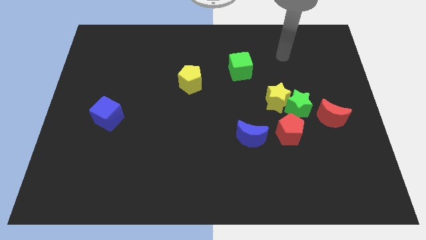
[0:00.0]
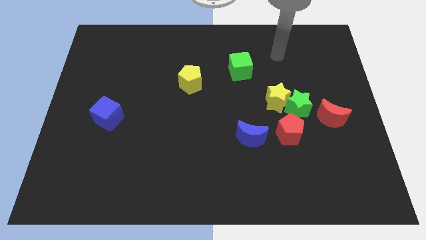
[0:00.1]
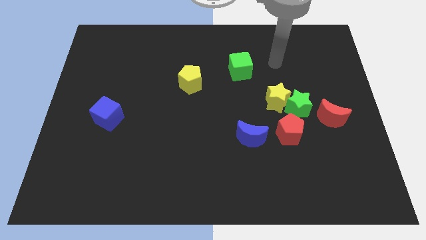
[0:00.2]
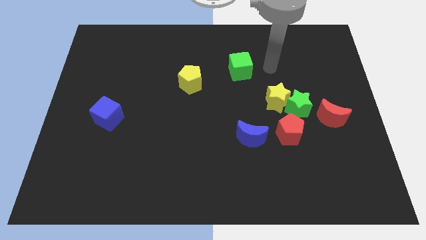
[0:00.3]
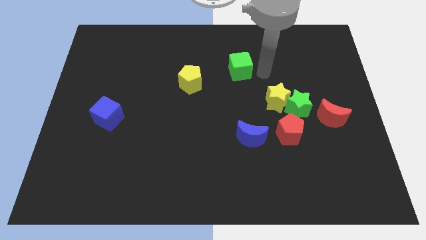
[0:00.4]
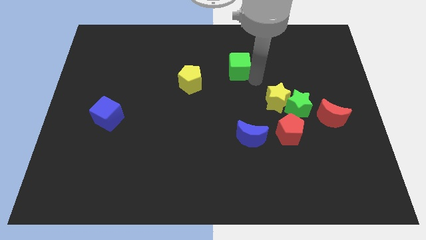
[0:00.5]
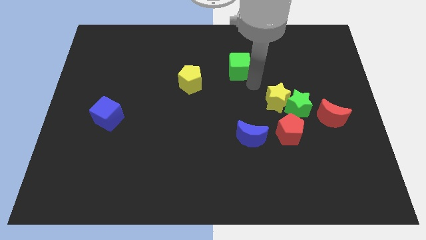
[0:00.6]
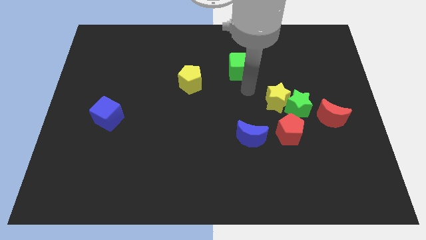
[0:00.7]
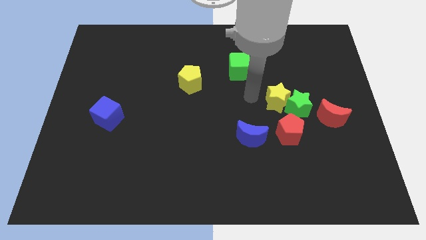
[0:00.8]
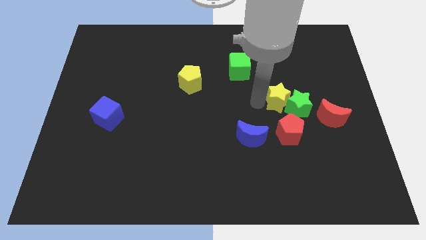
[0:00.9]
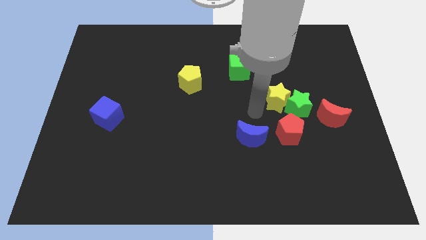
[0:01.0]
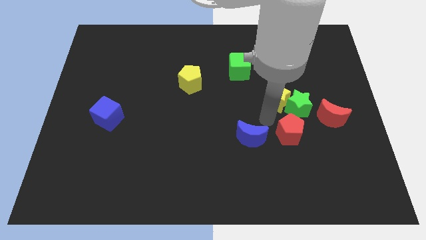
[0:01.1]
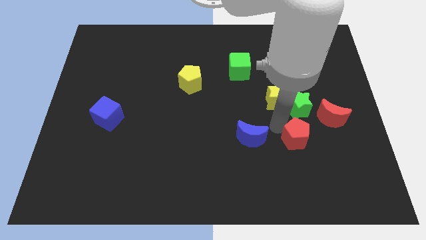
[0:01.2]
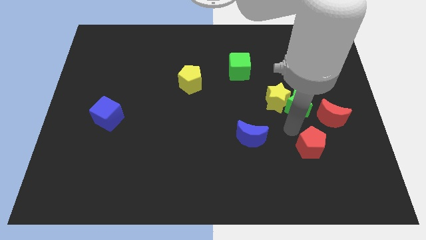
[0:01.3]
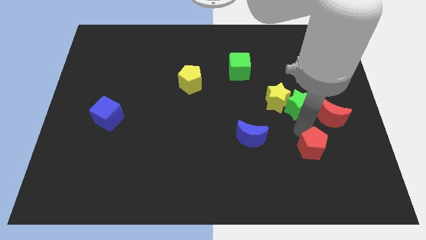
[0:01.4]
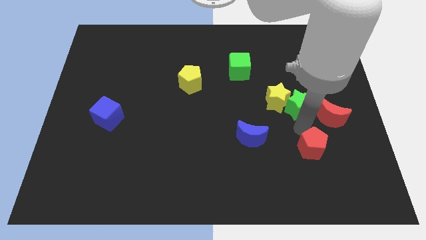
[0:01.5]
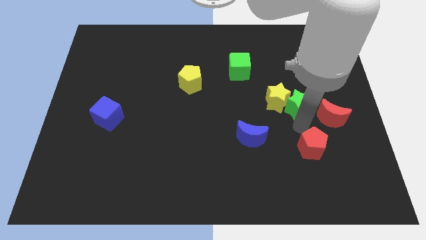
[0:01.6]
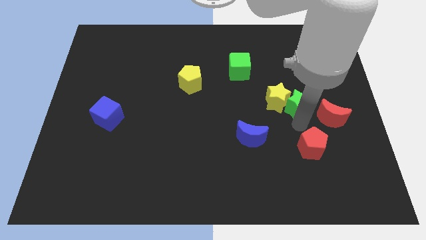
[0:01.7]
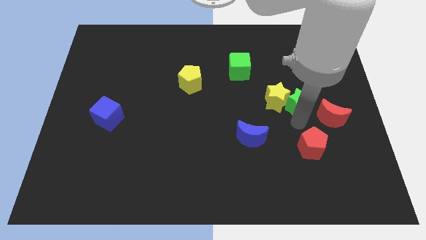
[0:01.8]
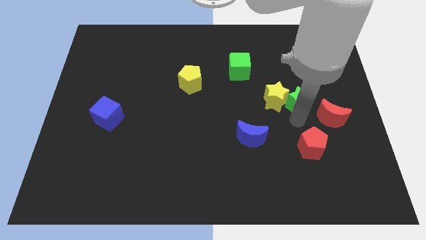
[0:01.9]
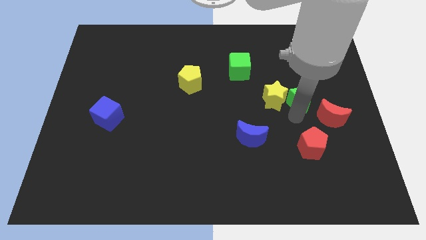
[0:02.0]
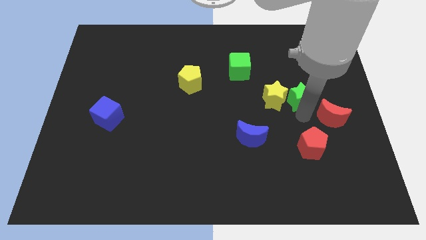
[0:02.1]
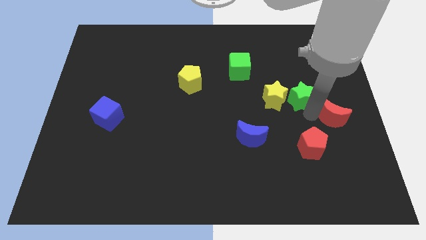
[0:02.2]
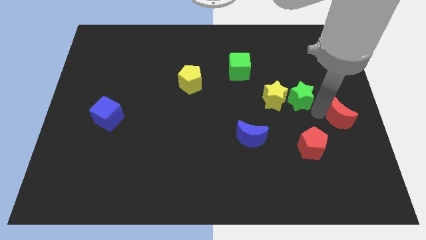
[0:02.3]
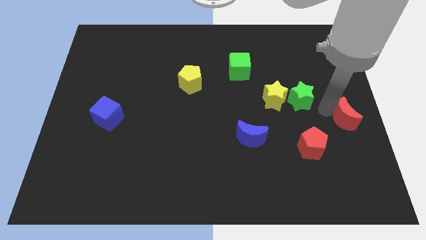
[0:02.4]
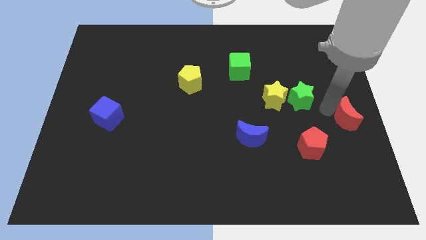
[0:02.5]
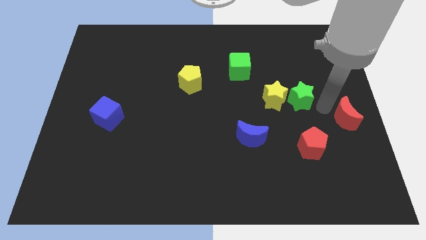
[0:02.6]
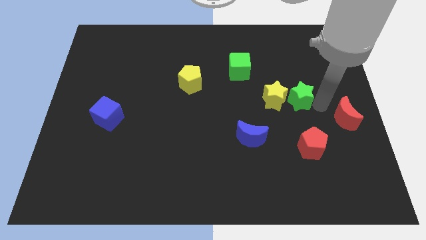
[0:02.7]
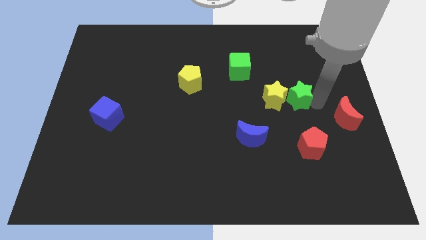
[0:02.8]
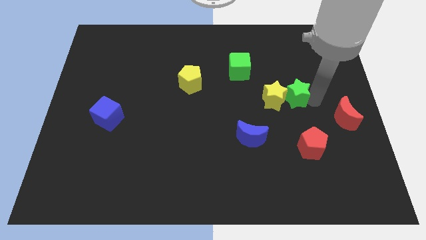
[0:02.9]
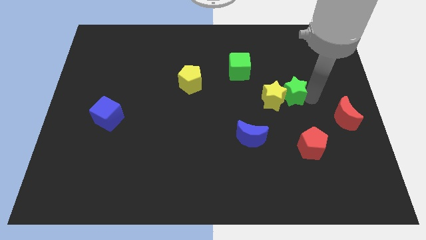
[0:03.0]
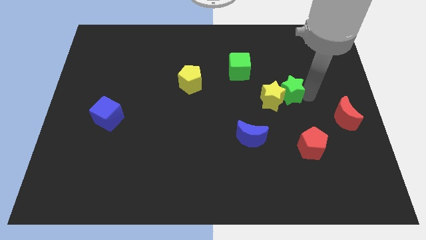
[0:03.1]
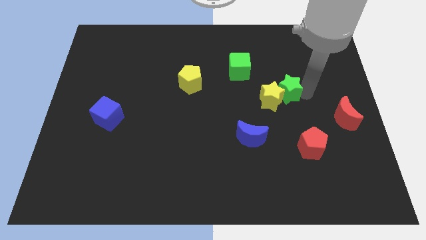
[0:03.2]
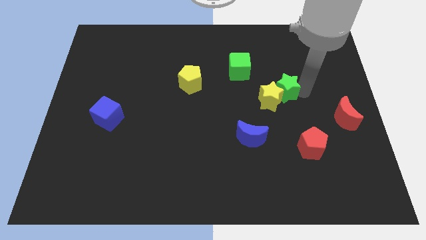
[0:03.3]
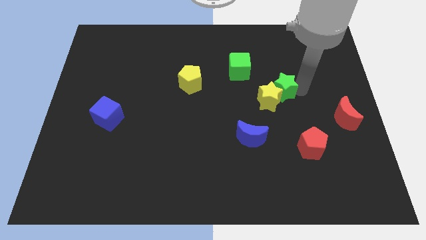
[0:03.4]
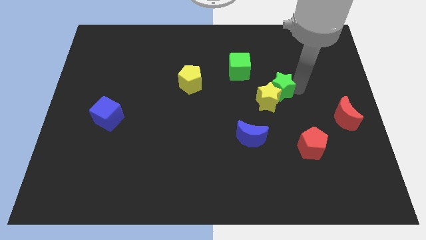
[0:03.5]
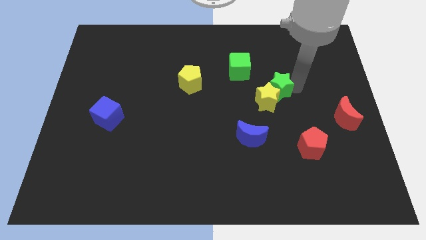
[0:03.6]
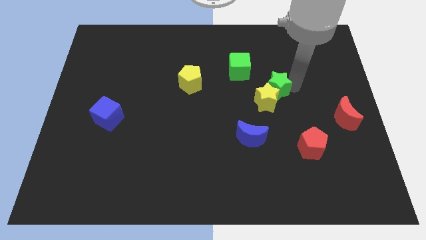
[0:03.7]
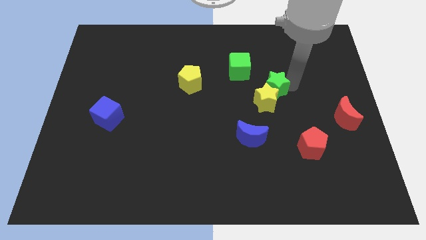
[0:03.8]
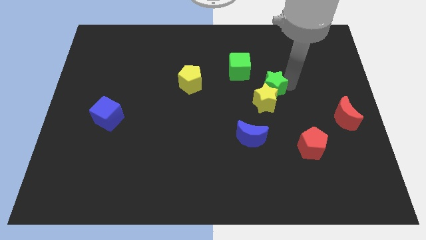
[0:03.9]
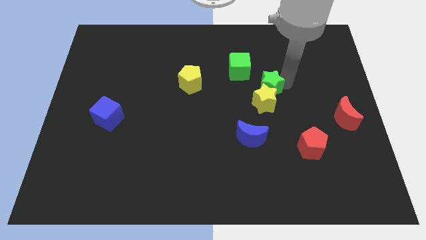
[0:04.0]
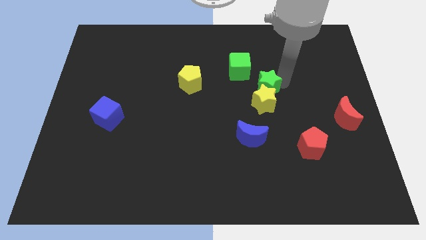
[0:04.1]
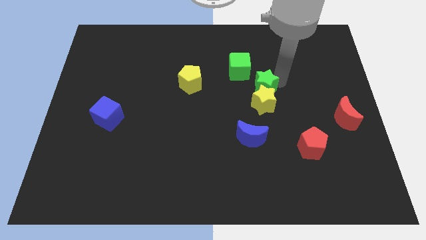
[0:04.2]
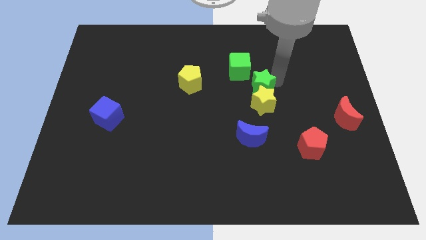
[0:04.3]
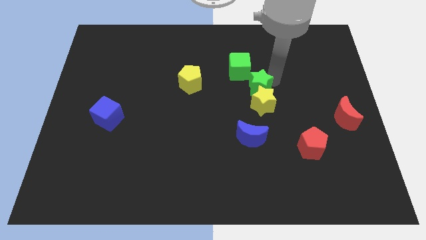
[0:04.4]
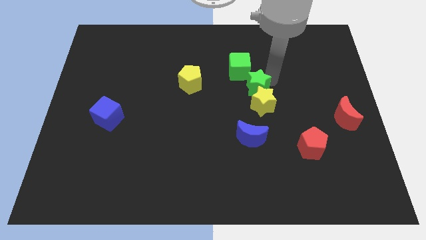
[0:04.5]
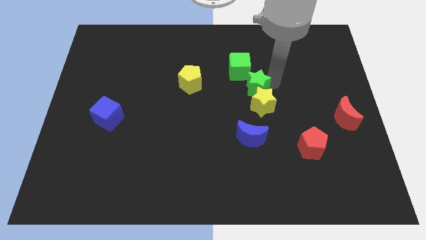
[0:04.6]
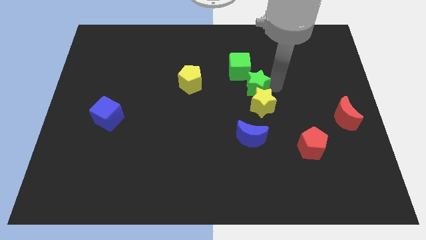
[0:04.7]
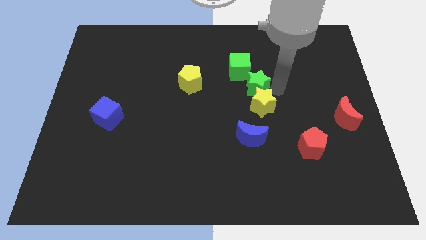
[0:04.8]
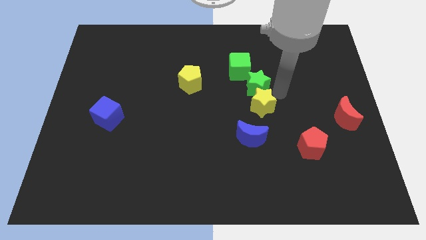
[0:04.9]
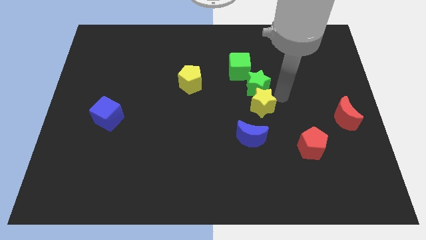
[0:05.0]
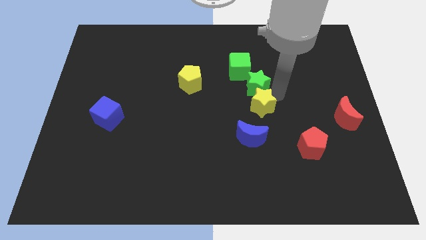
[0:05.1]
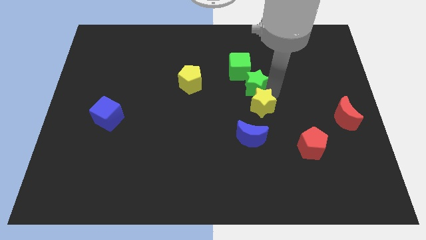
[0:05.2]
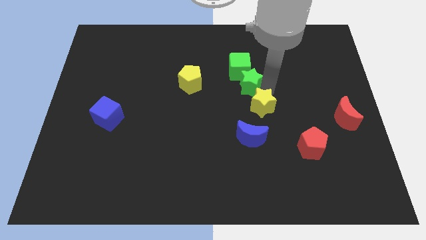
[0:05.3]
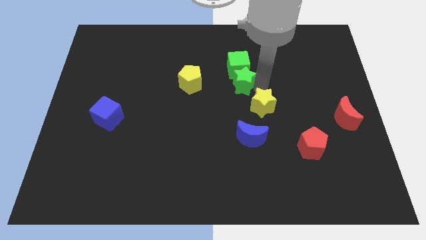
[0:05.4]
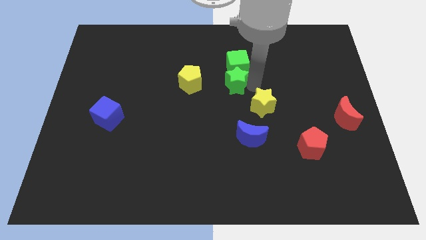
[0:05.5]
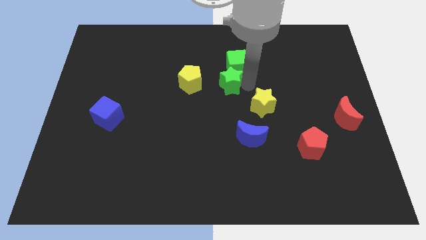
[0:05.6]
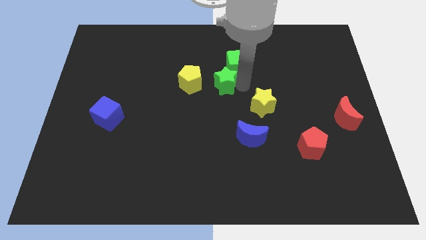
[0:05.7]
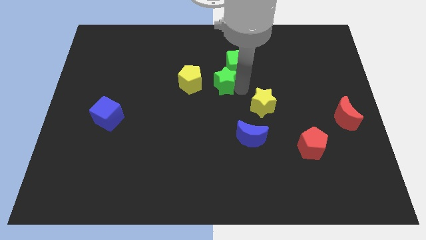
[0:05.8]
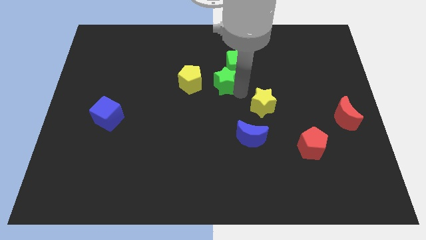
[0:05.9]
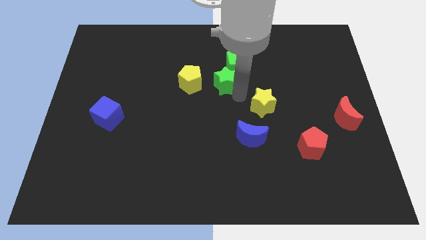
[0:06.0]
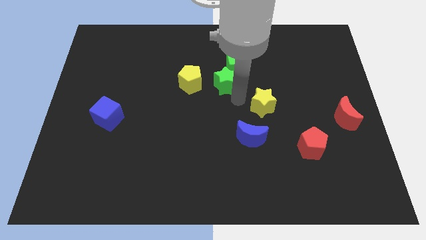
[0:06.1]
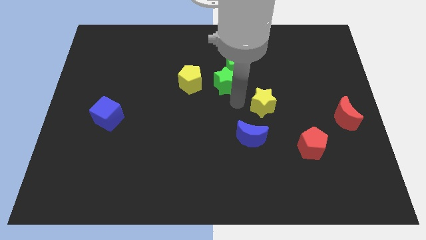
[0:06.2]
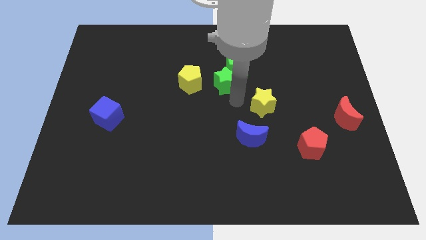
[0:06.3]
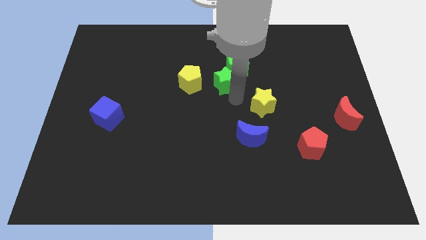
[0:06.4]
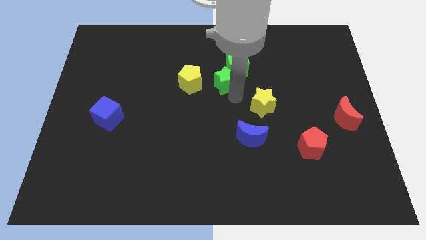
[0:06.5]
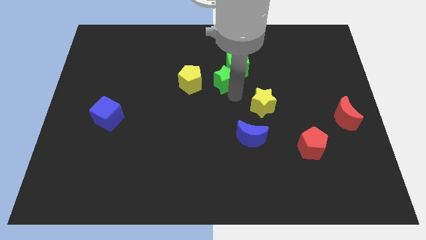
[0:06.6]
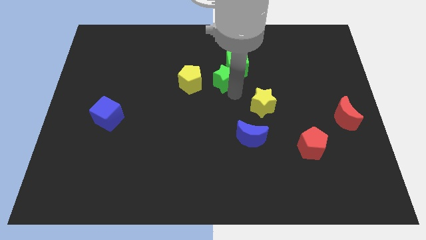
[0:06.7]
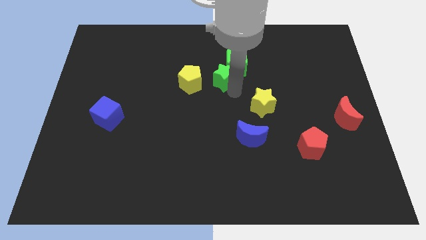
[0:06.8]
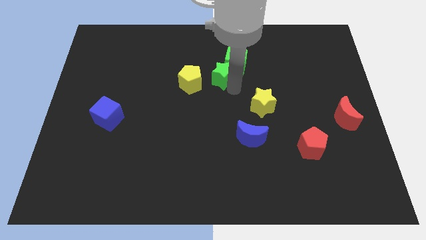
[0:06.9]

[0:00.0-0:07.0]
put the green star just left of the green cube

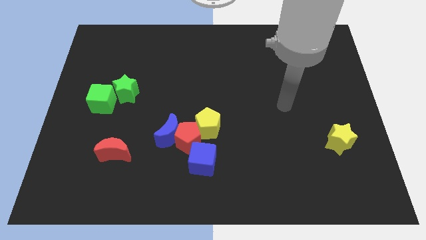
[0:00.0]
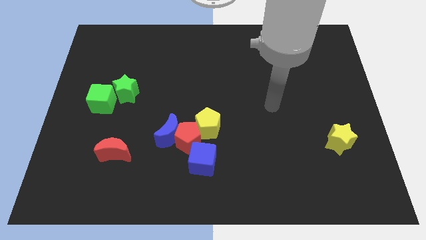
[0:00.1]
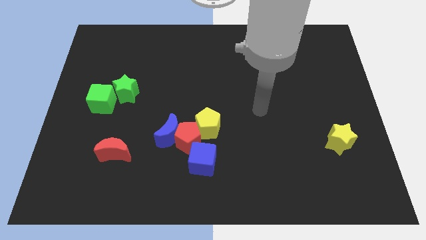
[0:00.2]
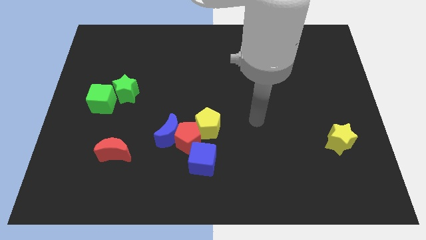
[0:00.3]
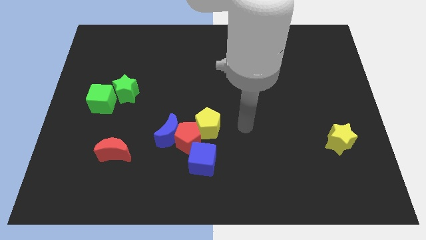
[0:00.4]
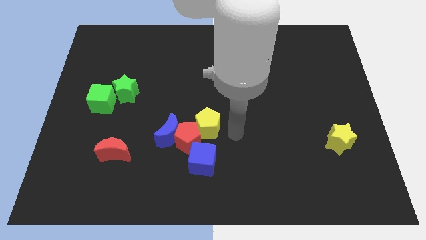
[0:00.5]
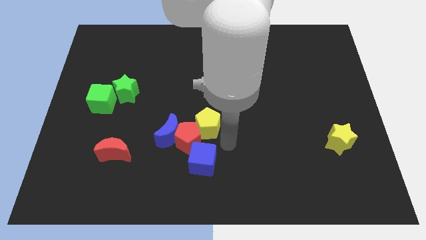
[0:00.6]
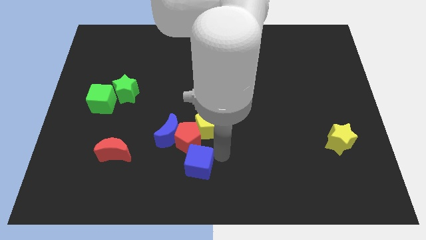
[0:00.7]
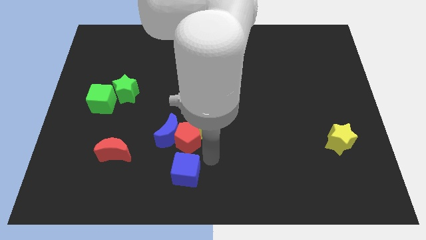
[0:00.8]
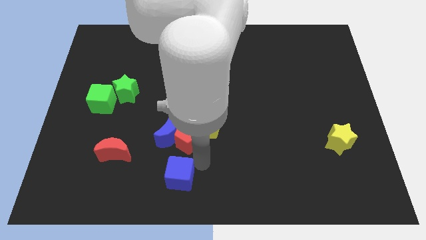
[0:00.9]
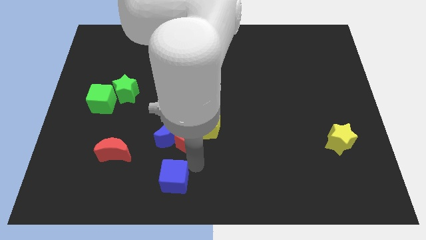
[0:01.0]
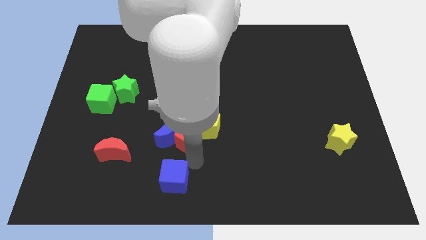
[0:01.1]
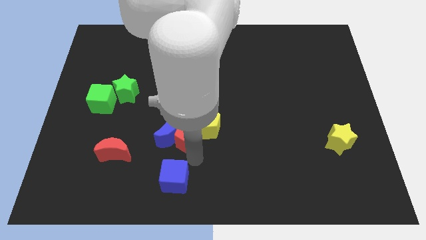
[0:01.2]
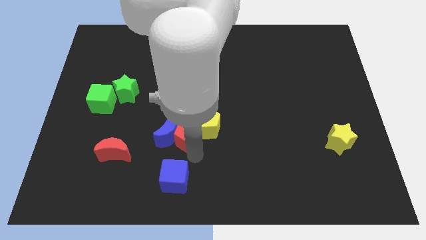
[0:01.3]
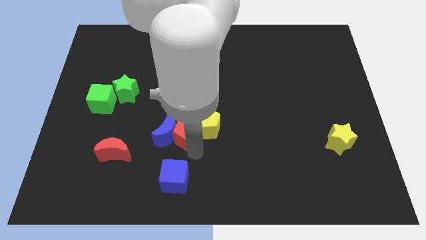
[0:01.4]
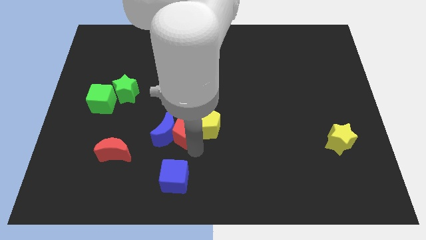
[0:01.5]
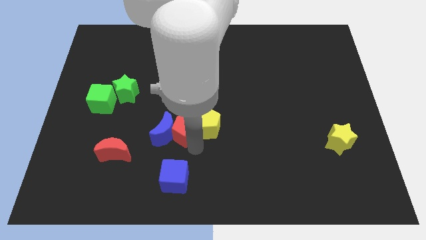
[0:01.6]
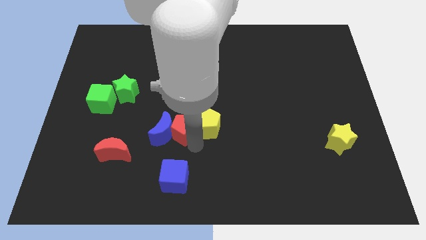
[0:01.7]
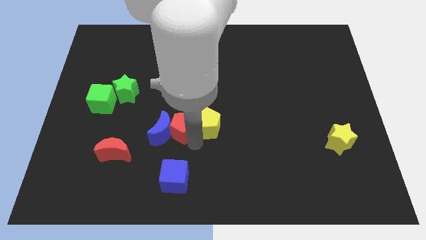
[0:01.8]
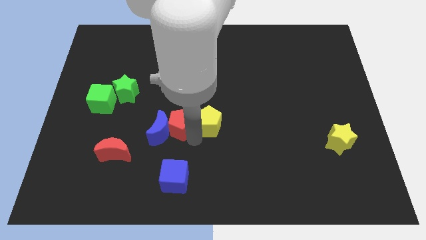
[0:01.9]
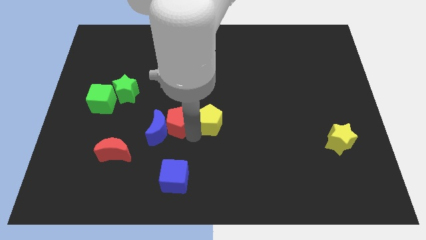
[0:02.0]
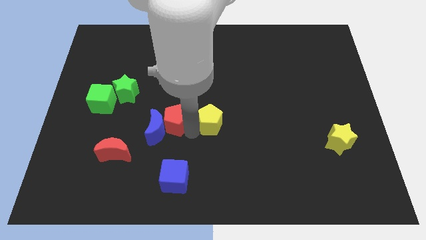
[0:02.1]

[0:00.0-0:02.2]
push the red pentagon to the top of the blue moon
